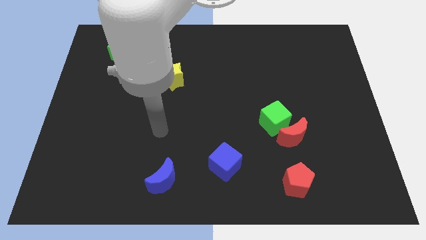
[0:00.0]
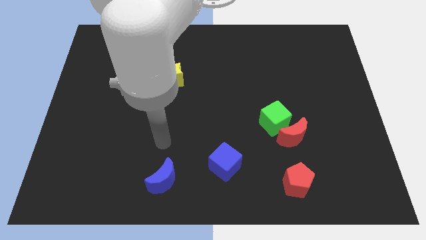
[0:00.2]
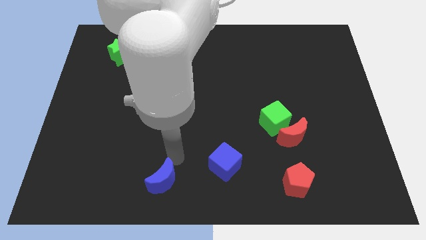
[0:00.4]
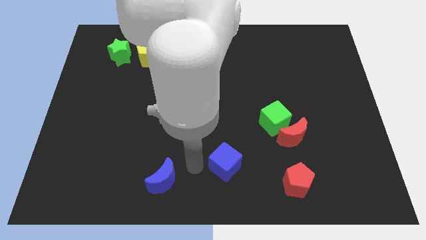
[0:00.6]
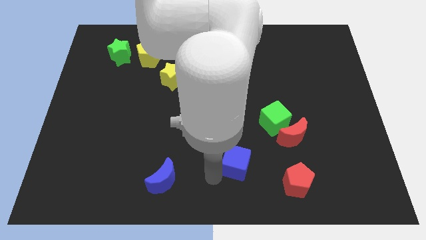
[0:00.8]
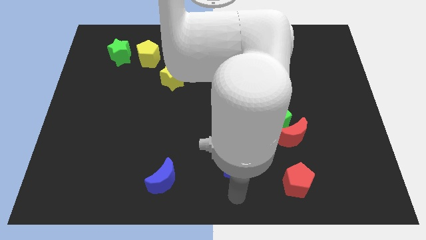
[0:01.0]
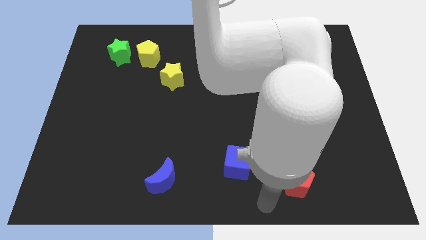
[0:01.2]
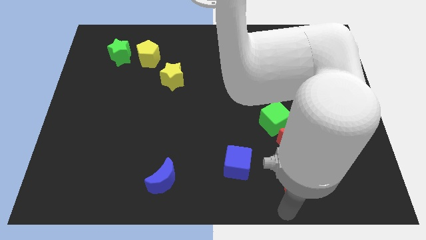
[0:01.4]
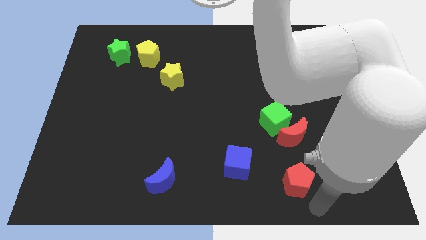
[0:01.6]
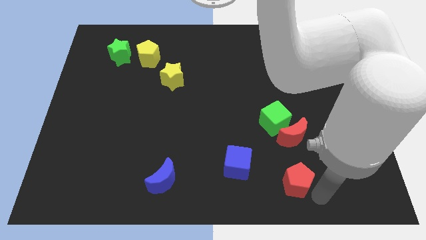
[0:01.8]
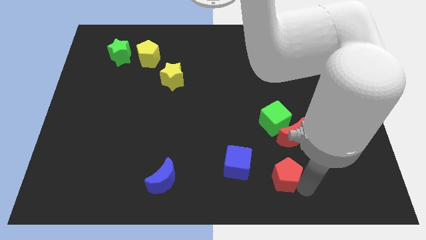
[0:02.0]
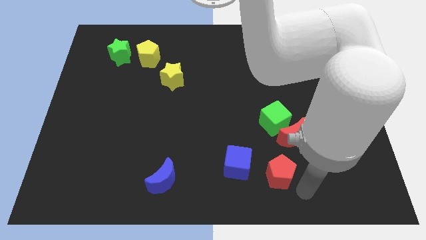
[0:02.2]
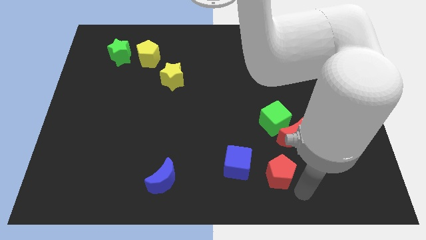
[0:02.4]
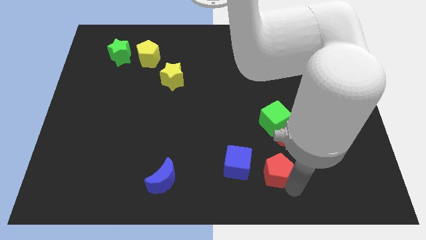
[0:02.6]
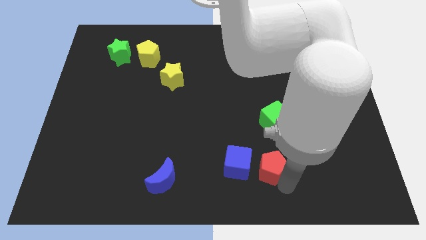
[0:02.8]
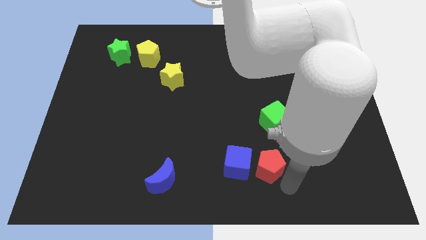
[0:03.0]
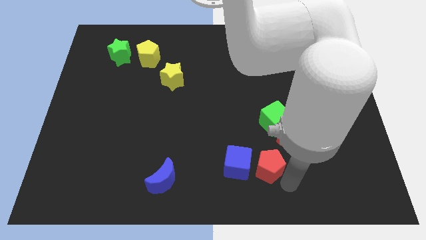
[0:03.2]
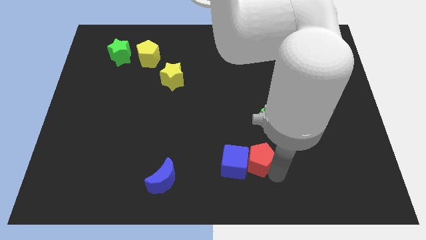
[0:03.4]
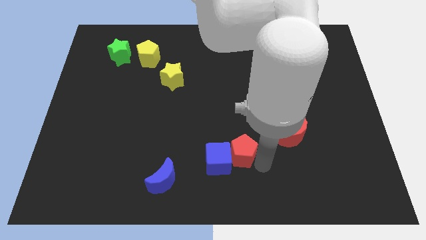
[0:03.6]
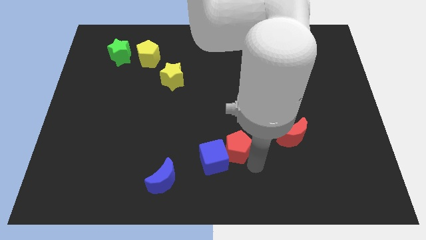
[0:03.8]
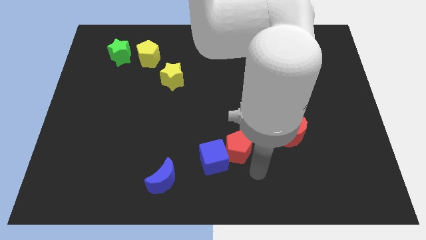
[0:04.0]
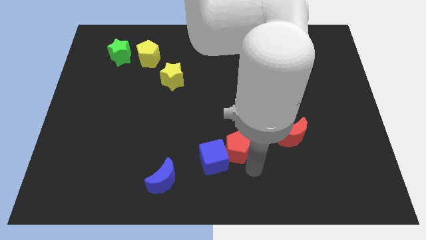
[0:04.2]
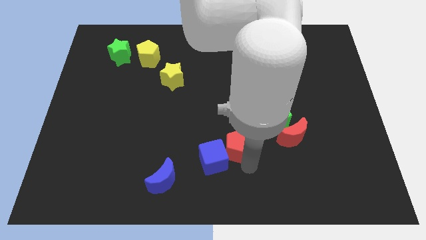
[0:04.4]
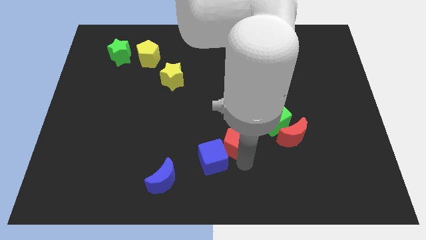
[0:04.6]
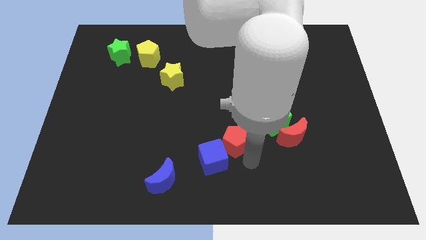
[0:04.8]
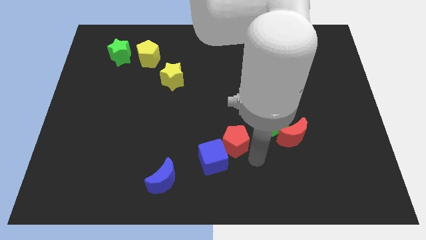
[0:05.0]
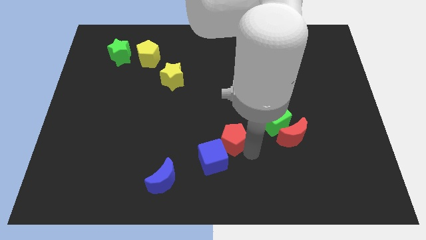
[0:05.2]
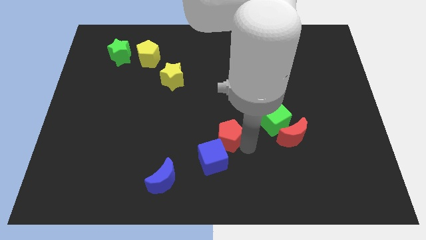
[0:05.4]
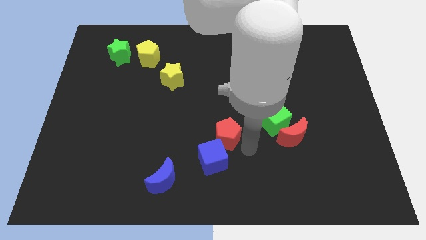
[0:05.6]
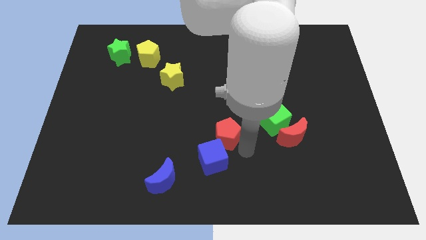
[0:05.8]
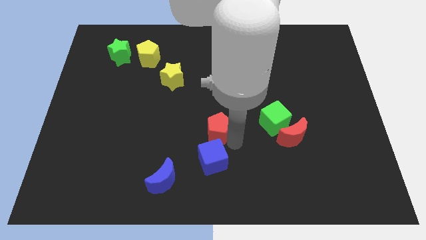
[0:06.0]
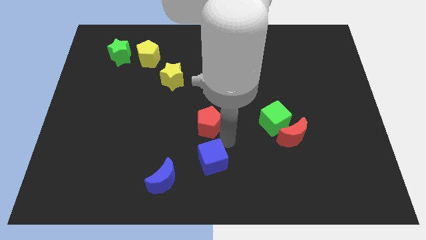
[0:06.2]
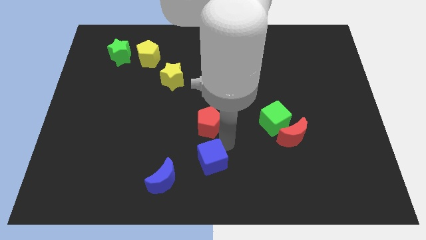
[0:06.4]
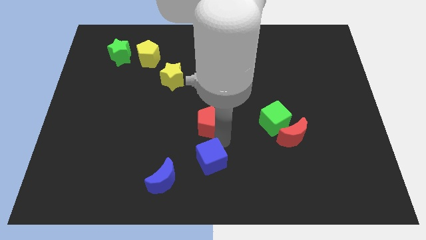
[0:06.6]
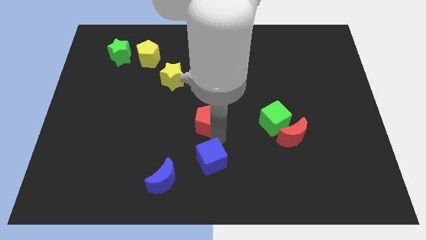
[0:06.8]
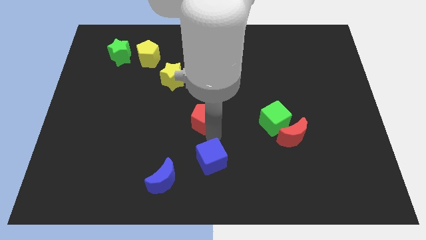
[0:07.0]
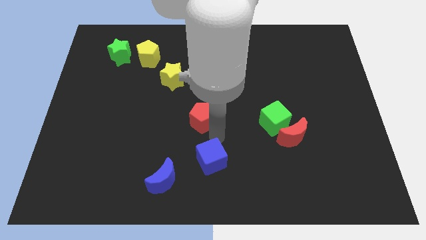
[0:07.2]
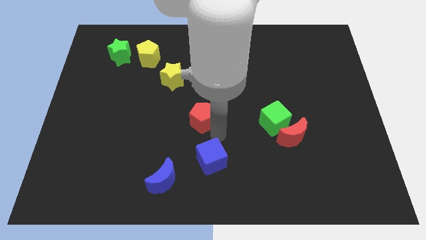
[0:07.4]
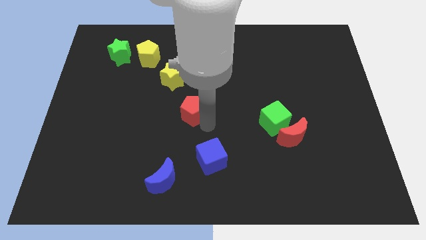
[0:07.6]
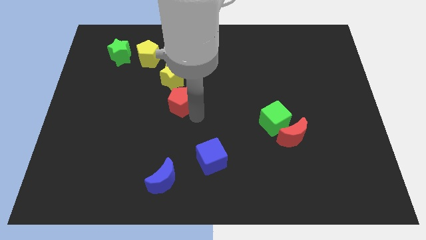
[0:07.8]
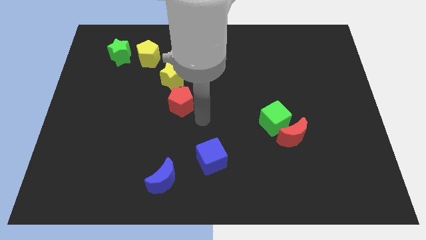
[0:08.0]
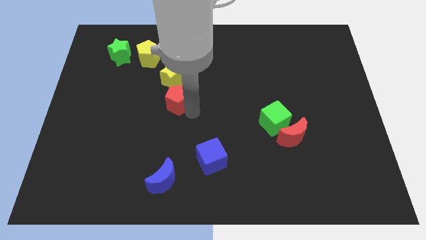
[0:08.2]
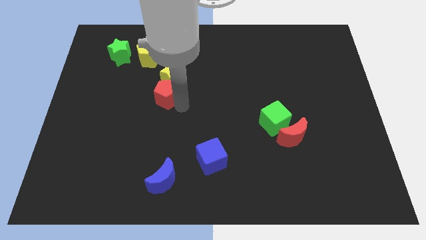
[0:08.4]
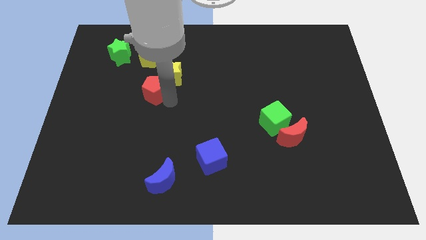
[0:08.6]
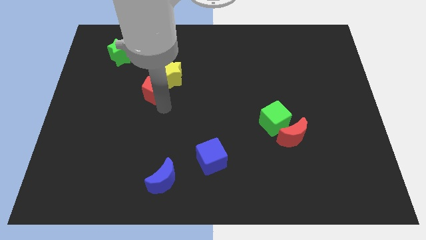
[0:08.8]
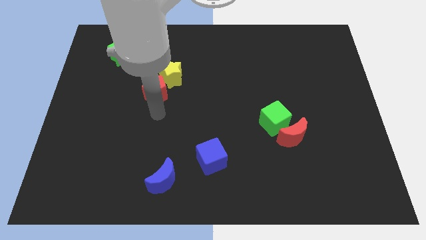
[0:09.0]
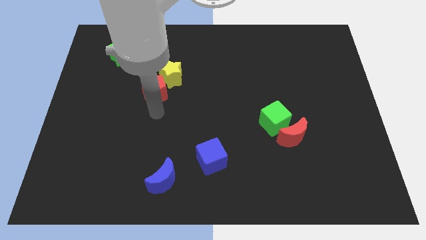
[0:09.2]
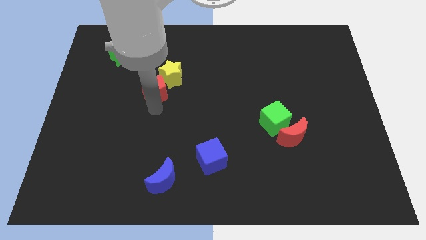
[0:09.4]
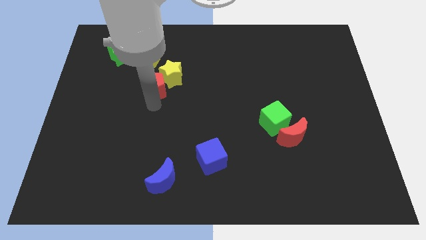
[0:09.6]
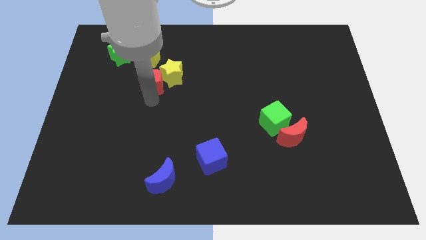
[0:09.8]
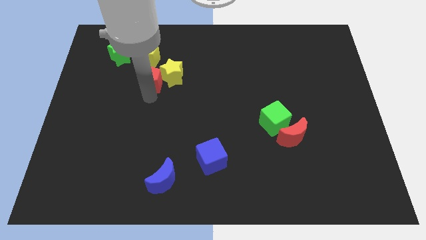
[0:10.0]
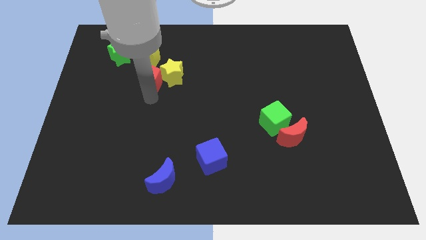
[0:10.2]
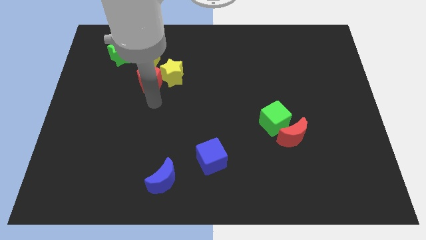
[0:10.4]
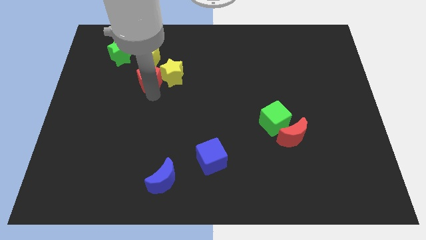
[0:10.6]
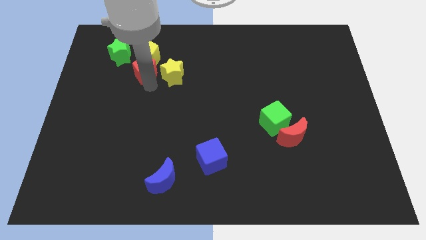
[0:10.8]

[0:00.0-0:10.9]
put the red pentagon close to the yellow pentagon

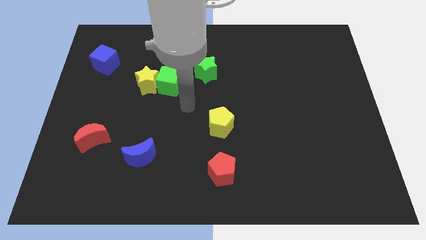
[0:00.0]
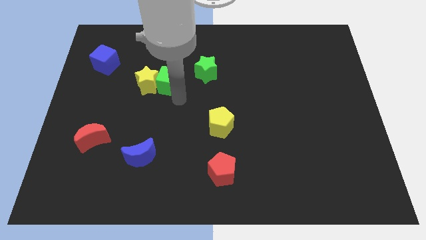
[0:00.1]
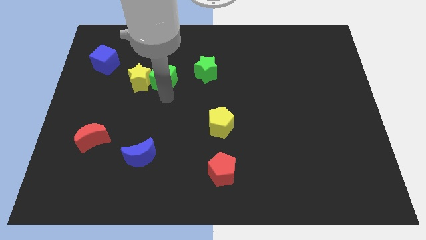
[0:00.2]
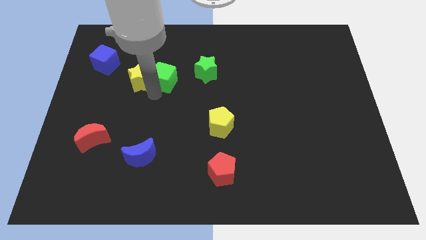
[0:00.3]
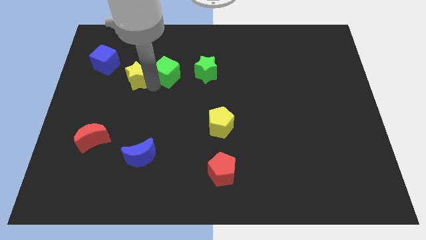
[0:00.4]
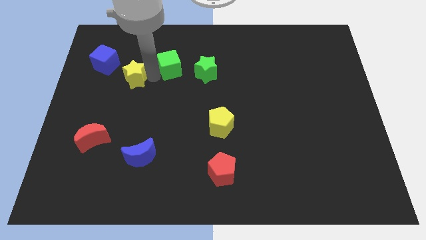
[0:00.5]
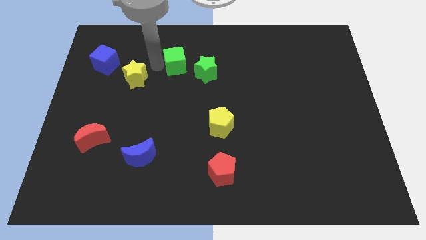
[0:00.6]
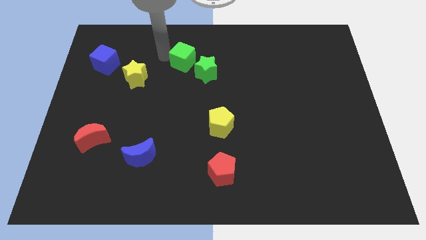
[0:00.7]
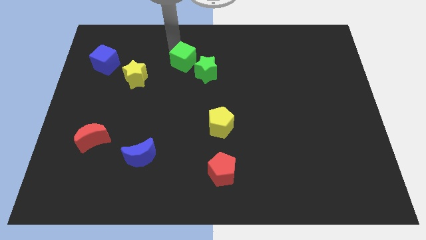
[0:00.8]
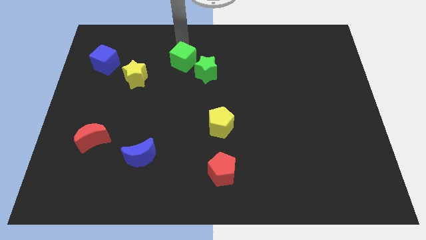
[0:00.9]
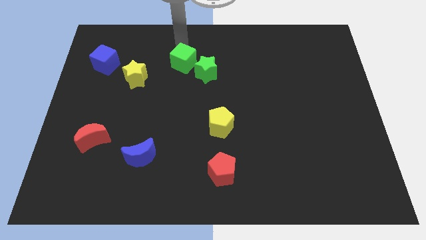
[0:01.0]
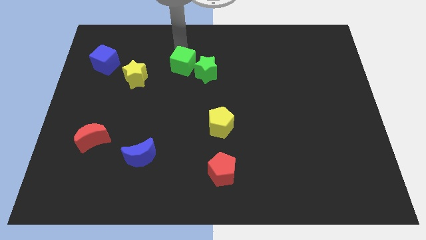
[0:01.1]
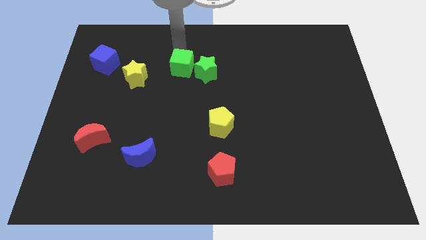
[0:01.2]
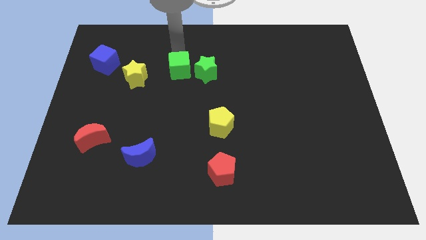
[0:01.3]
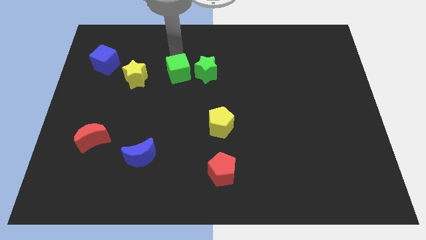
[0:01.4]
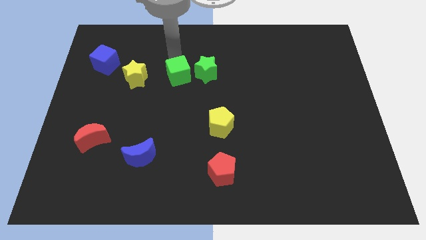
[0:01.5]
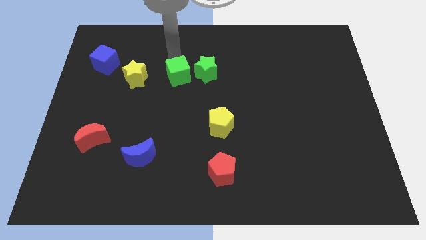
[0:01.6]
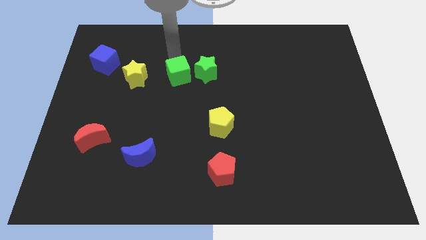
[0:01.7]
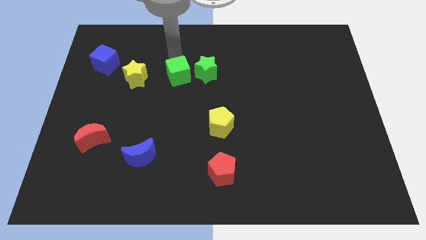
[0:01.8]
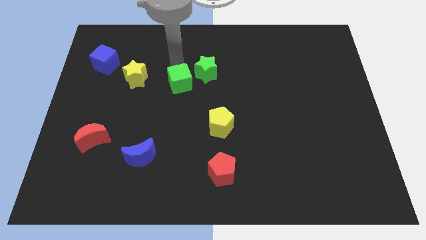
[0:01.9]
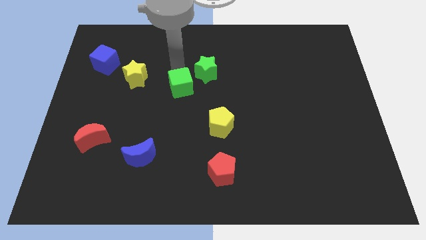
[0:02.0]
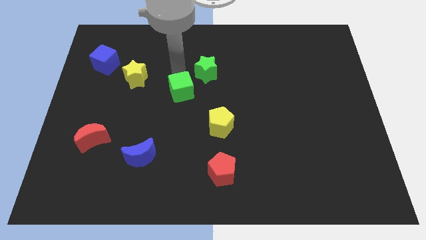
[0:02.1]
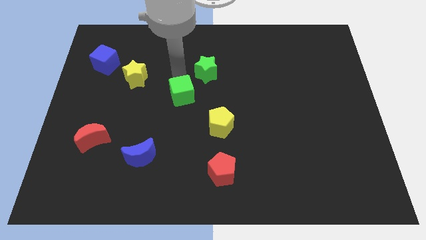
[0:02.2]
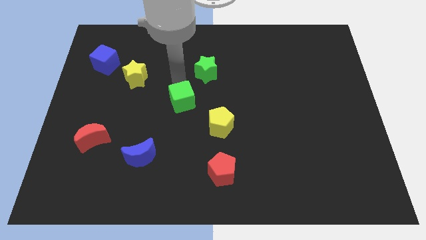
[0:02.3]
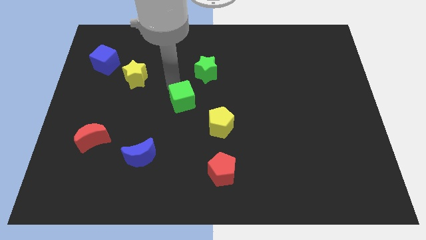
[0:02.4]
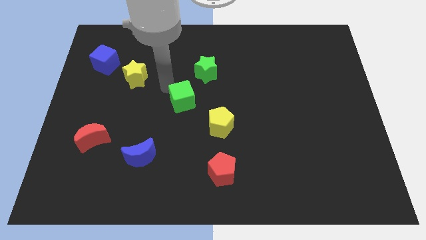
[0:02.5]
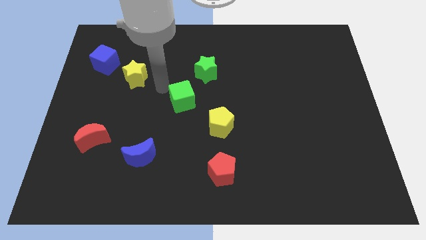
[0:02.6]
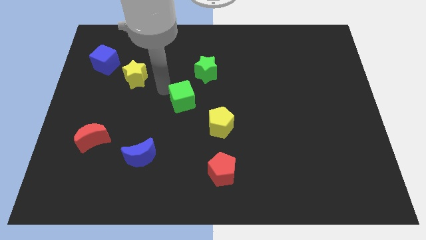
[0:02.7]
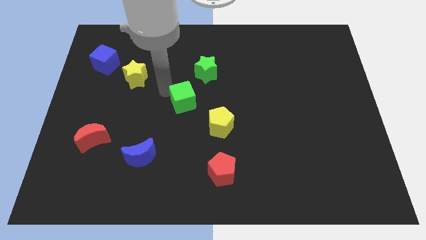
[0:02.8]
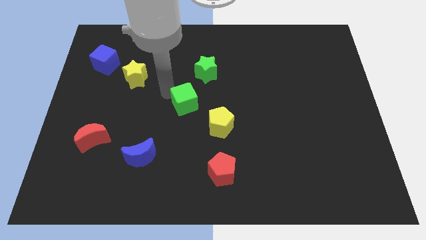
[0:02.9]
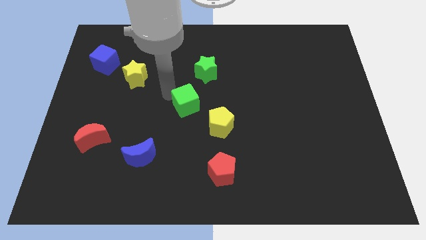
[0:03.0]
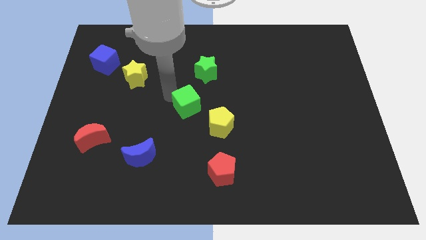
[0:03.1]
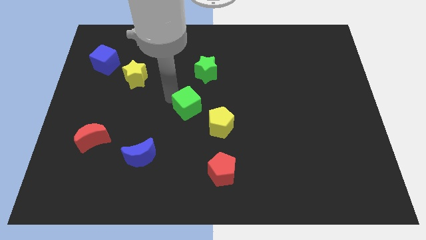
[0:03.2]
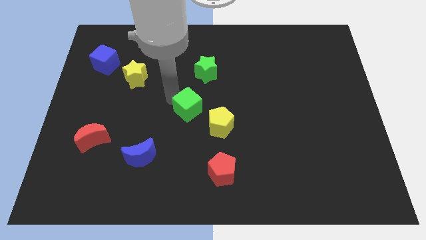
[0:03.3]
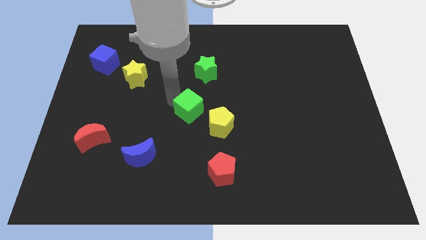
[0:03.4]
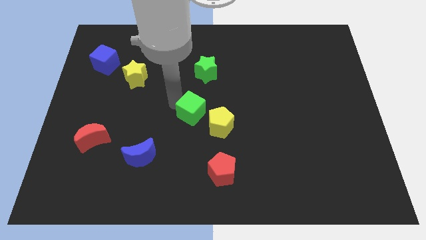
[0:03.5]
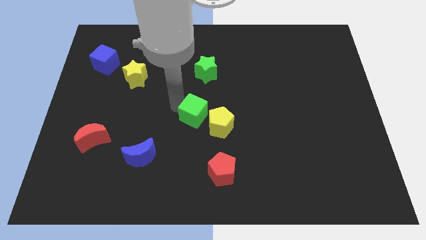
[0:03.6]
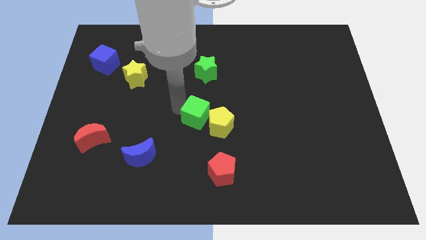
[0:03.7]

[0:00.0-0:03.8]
put the green cube close to the yellow pentagon
